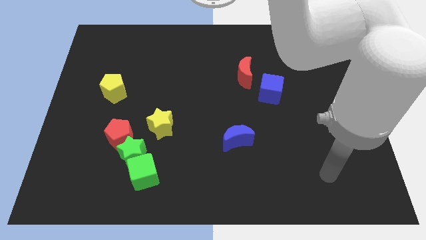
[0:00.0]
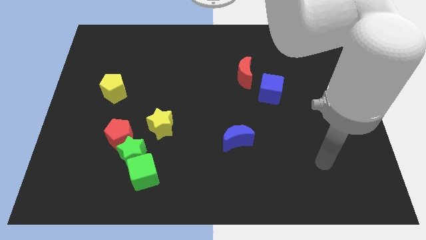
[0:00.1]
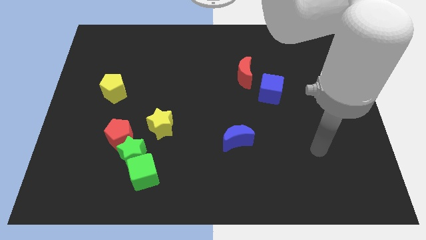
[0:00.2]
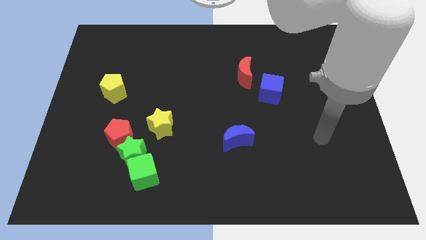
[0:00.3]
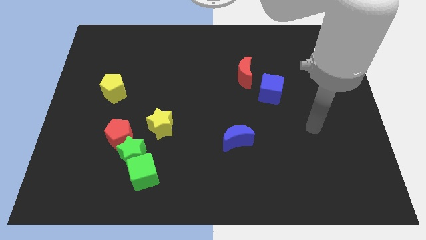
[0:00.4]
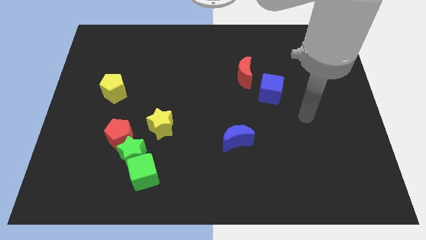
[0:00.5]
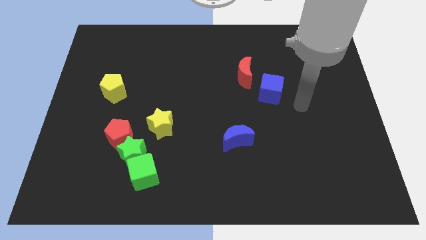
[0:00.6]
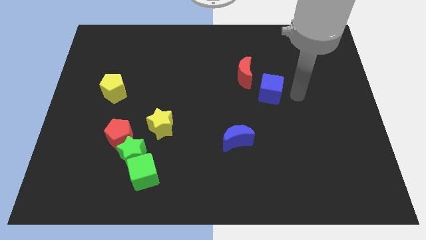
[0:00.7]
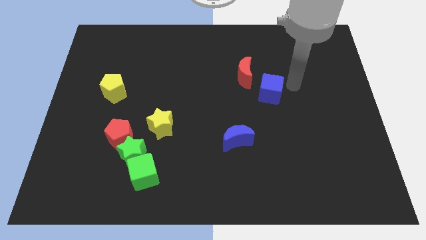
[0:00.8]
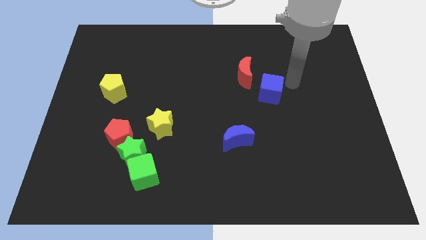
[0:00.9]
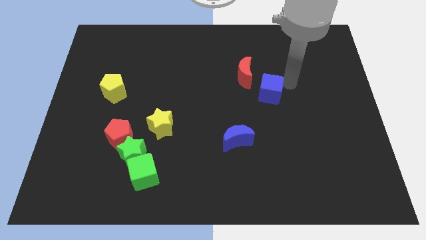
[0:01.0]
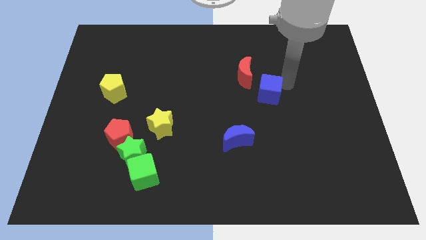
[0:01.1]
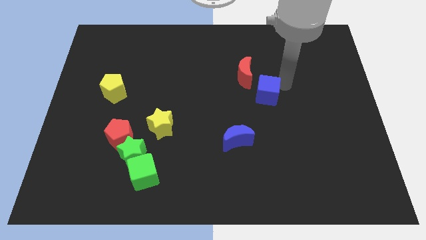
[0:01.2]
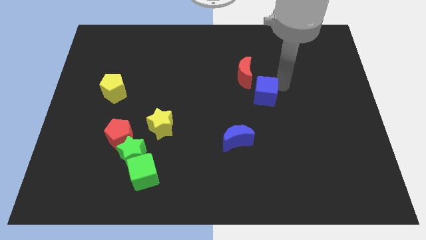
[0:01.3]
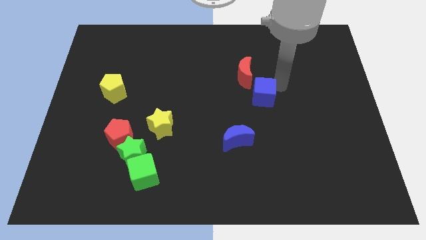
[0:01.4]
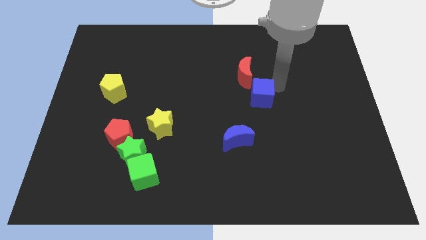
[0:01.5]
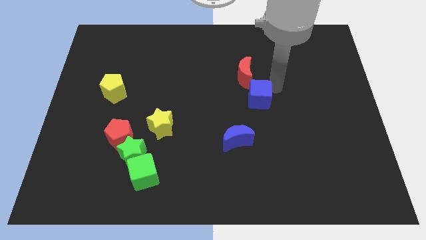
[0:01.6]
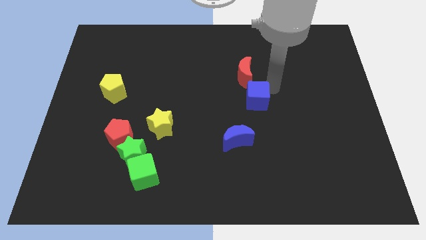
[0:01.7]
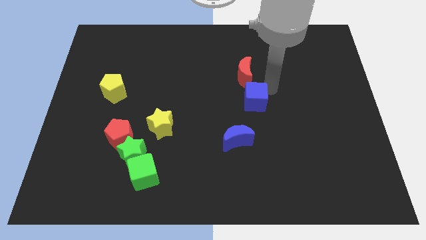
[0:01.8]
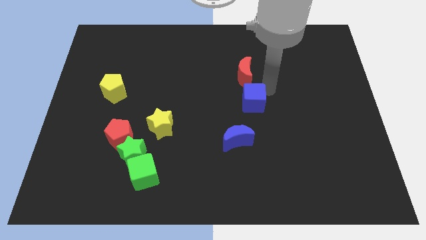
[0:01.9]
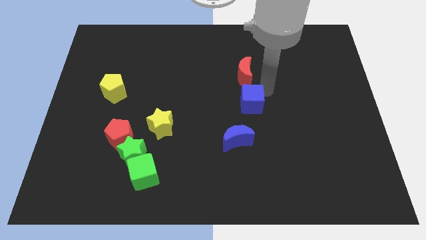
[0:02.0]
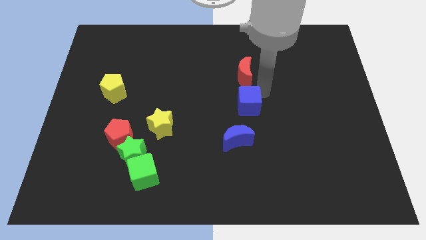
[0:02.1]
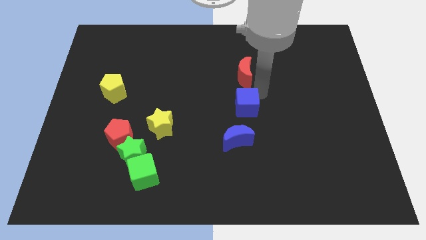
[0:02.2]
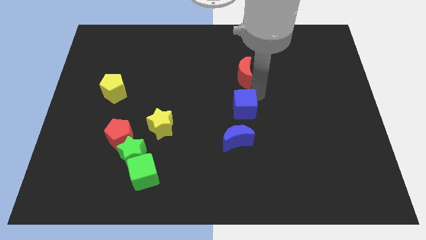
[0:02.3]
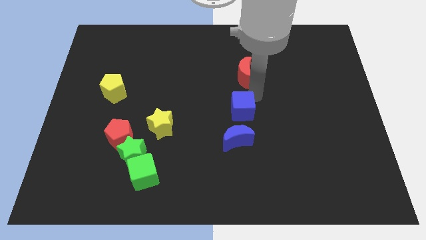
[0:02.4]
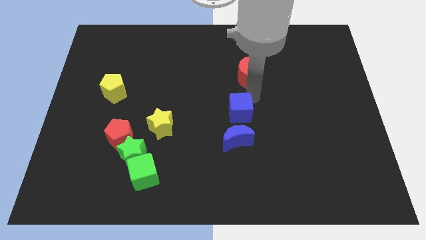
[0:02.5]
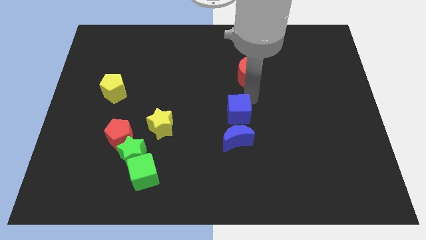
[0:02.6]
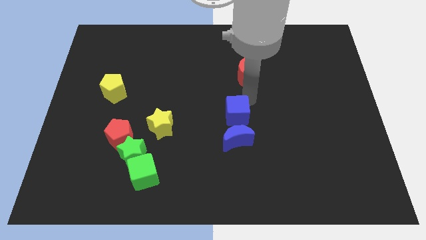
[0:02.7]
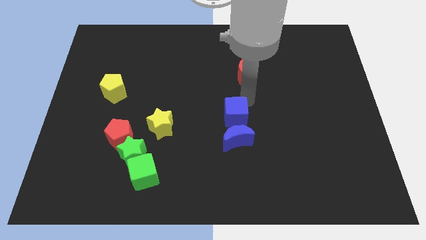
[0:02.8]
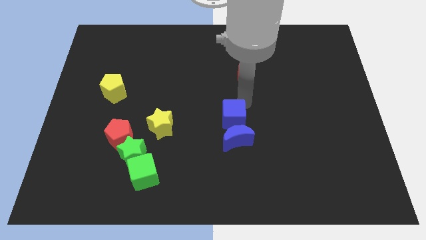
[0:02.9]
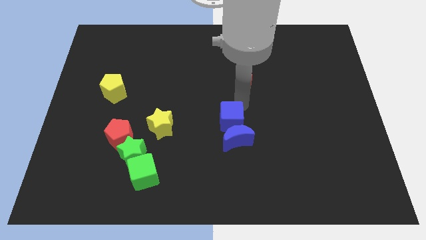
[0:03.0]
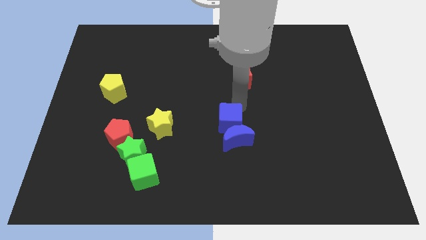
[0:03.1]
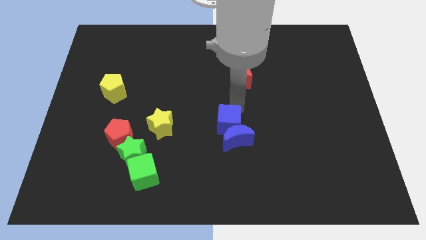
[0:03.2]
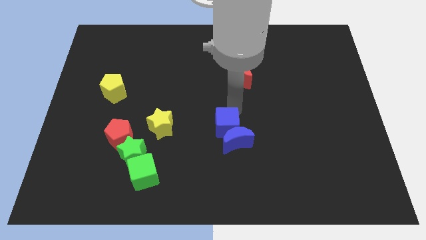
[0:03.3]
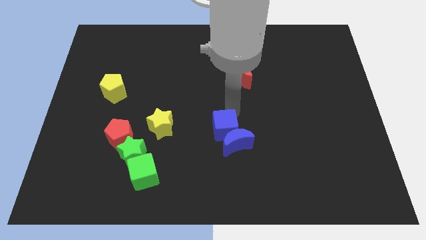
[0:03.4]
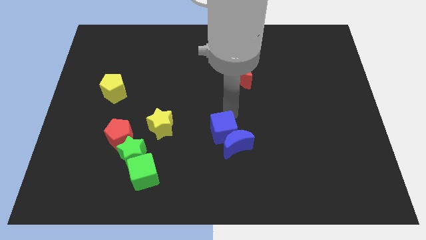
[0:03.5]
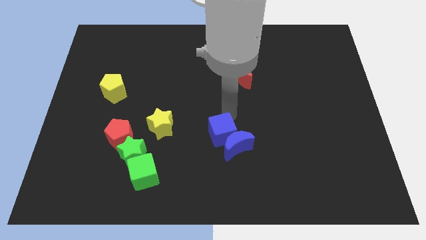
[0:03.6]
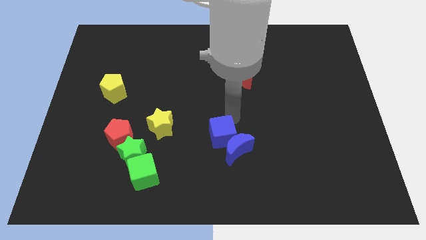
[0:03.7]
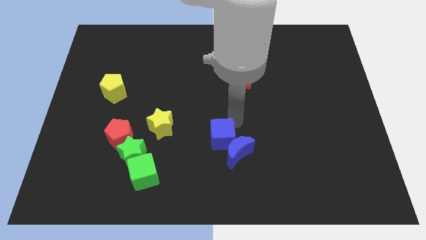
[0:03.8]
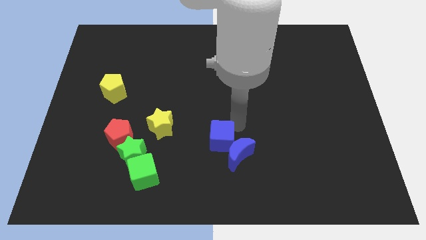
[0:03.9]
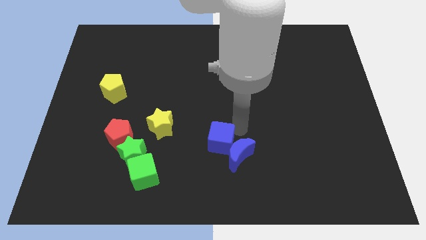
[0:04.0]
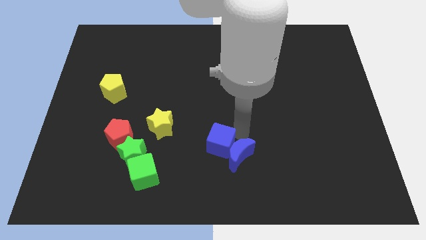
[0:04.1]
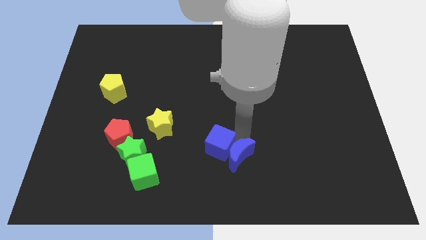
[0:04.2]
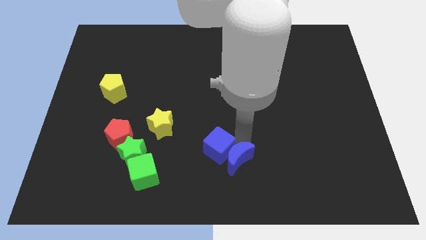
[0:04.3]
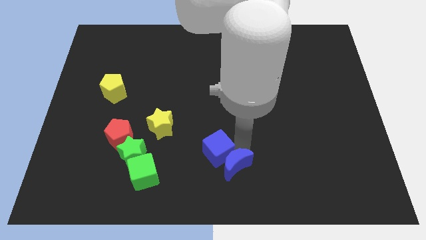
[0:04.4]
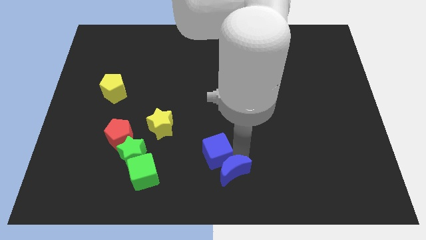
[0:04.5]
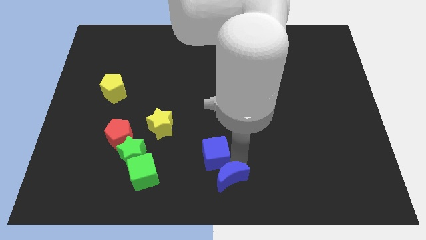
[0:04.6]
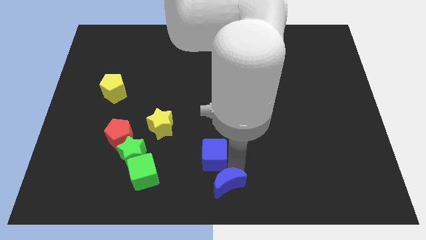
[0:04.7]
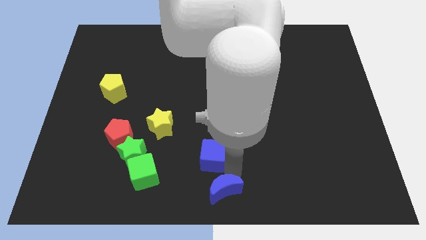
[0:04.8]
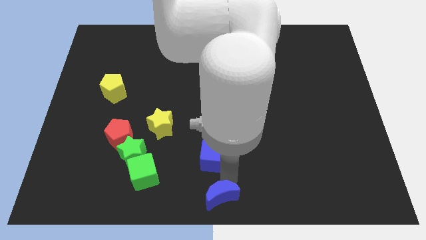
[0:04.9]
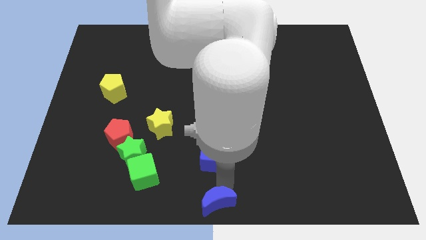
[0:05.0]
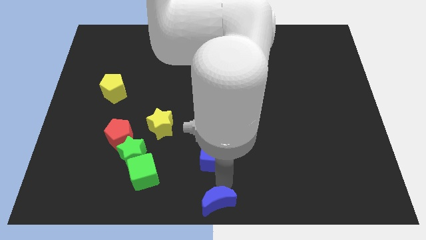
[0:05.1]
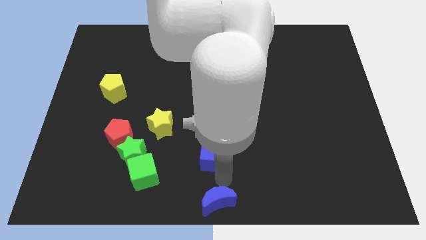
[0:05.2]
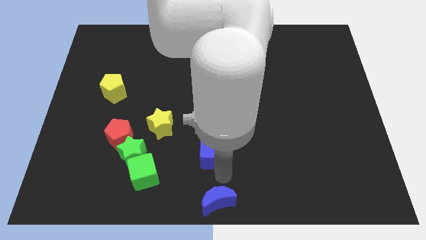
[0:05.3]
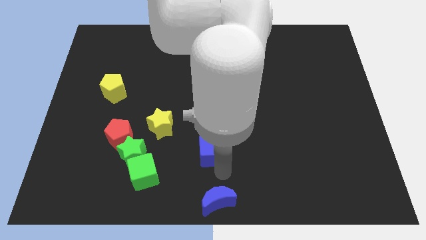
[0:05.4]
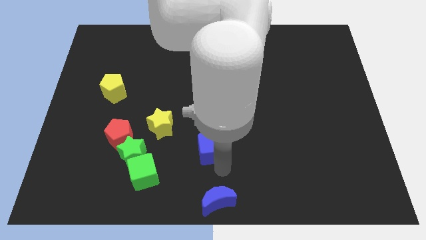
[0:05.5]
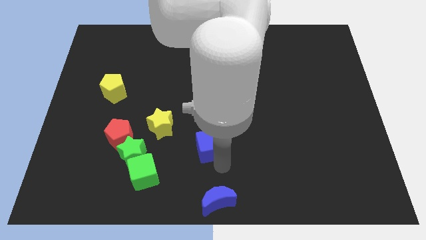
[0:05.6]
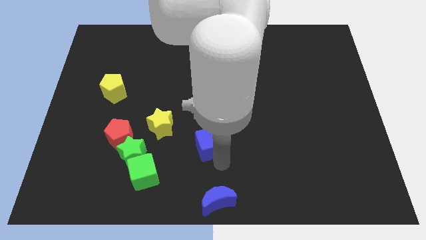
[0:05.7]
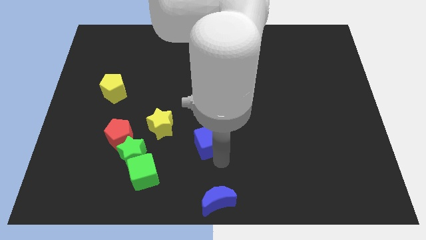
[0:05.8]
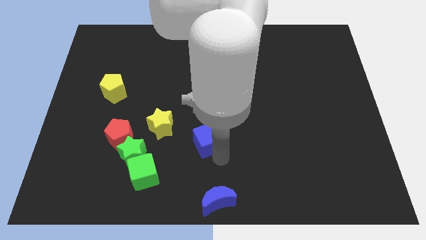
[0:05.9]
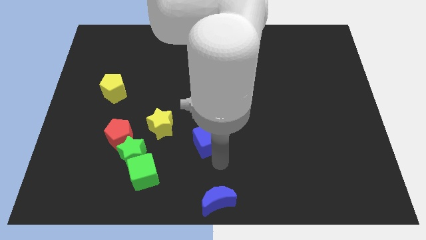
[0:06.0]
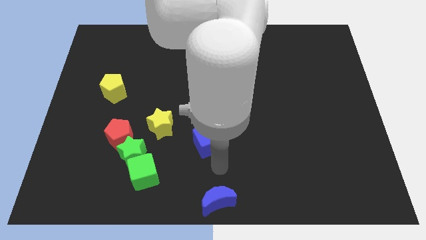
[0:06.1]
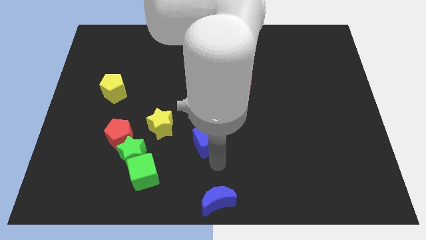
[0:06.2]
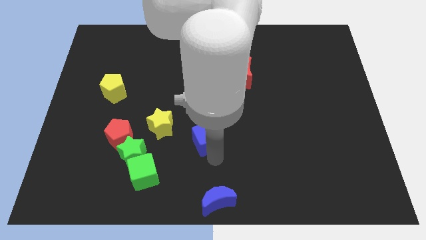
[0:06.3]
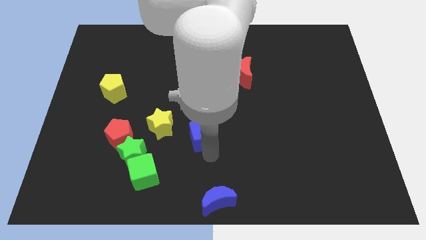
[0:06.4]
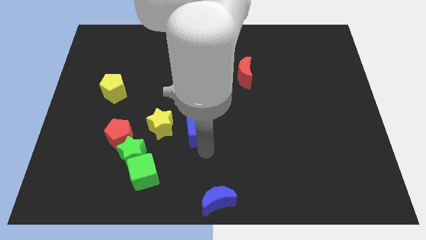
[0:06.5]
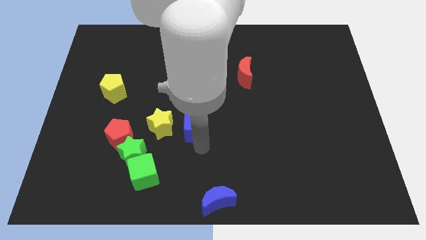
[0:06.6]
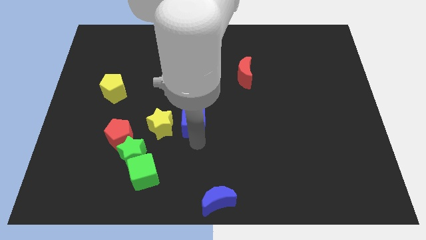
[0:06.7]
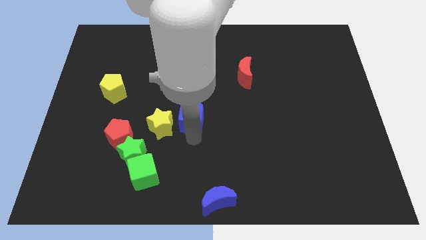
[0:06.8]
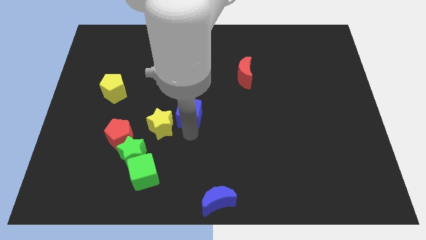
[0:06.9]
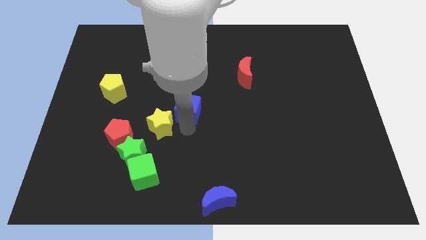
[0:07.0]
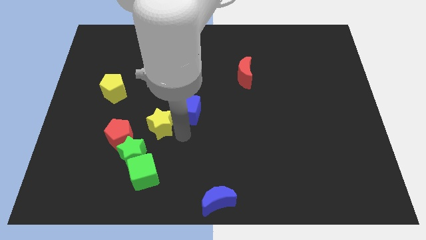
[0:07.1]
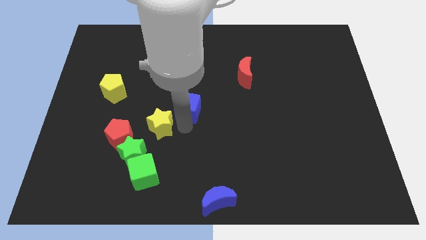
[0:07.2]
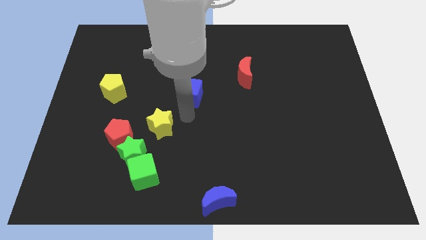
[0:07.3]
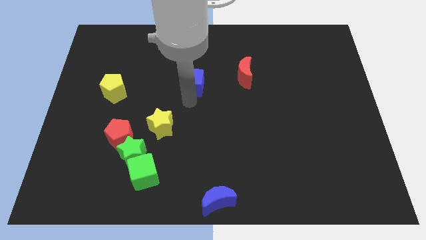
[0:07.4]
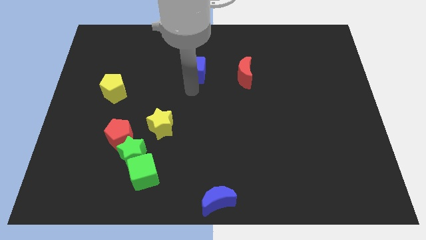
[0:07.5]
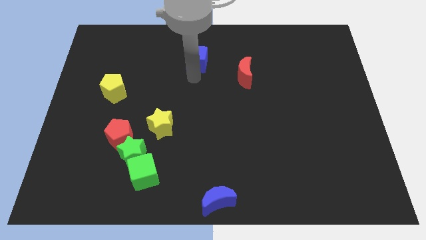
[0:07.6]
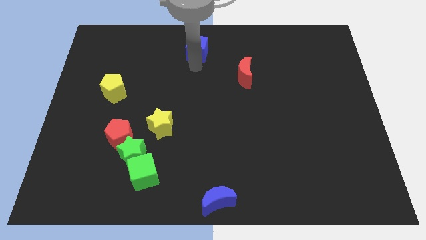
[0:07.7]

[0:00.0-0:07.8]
move the blue cube to the top side
